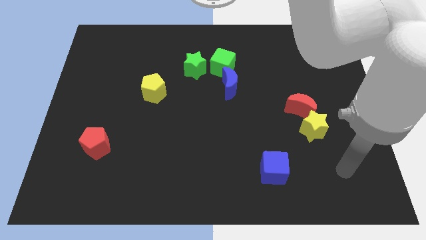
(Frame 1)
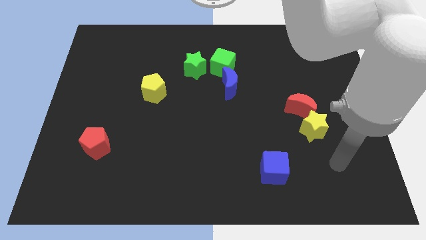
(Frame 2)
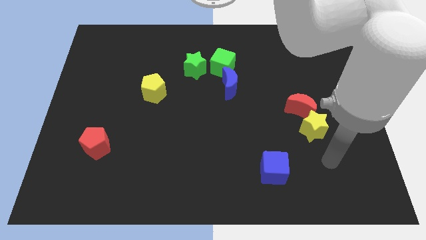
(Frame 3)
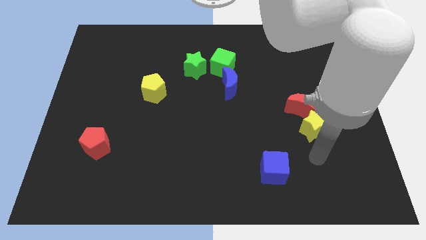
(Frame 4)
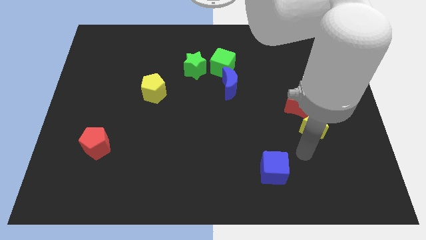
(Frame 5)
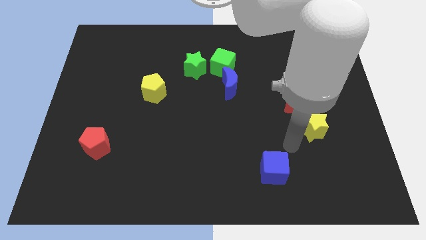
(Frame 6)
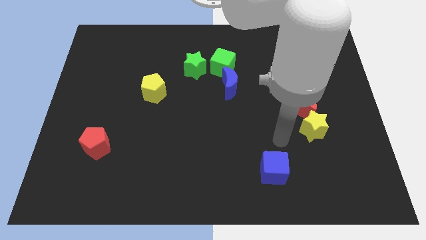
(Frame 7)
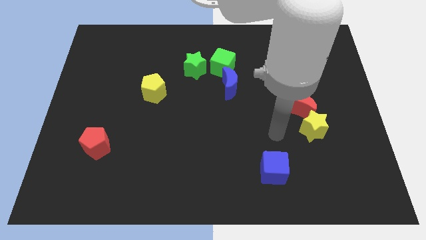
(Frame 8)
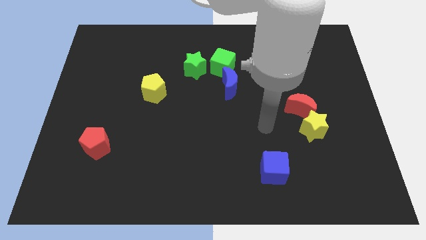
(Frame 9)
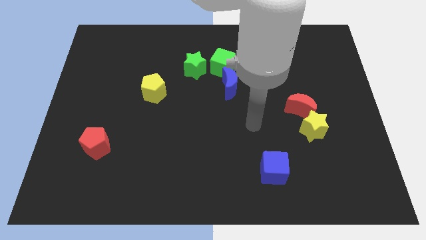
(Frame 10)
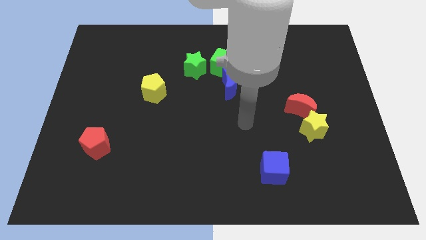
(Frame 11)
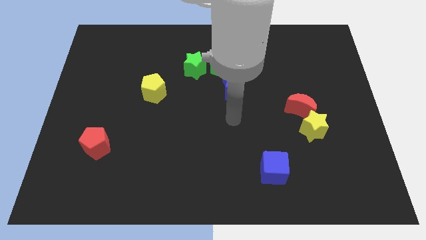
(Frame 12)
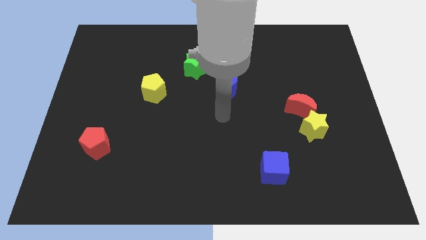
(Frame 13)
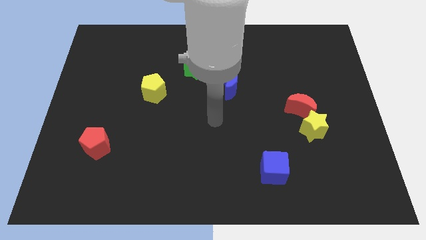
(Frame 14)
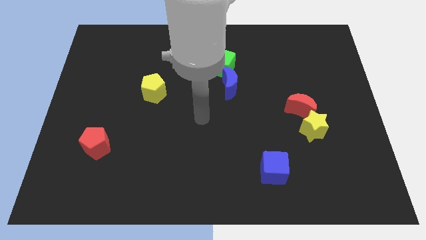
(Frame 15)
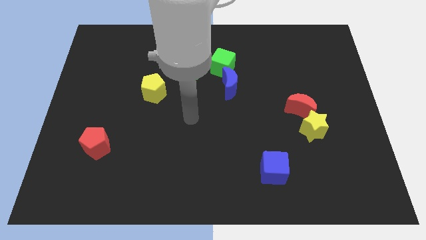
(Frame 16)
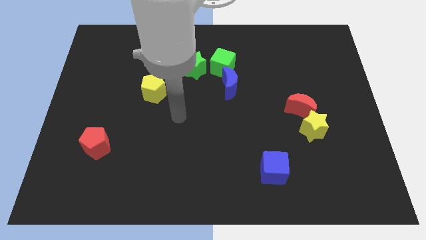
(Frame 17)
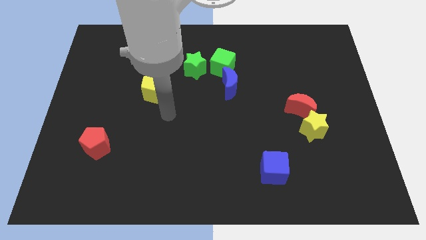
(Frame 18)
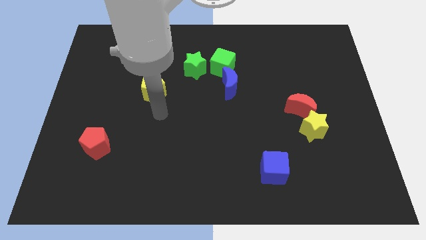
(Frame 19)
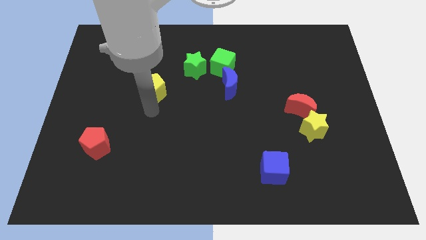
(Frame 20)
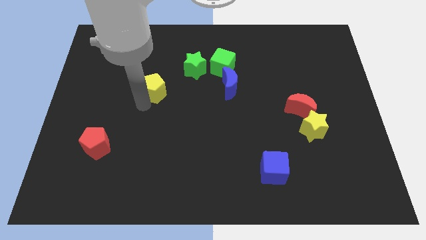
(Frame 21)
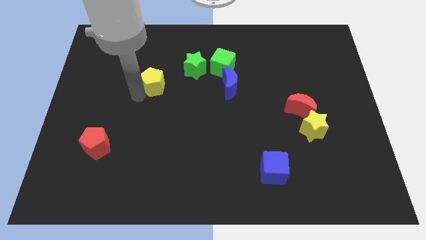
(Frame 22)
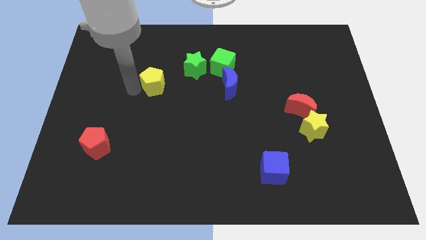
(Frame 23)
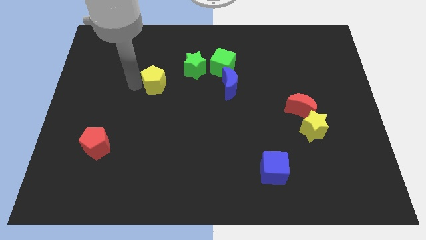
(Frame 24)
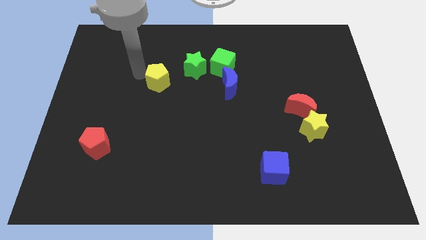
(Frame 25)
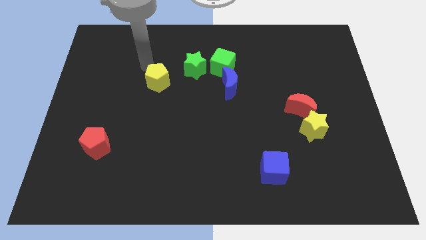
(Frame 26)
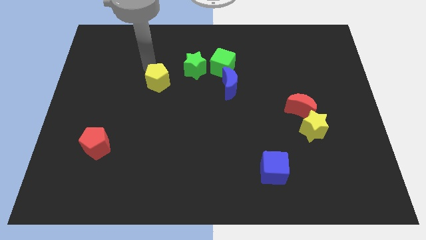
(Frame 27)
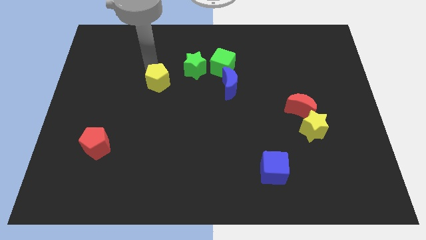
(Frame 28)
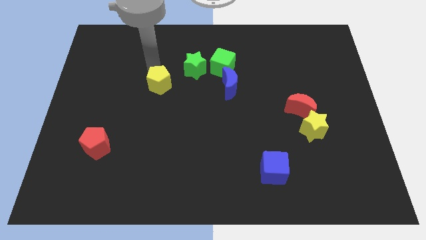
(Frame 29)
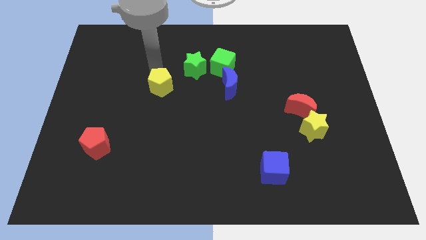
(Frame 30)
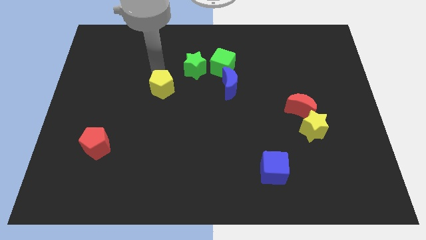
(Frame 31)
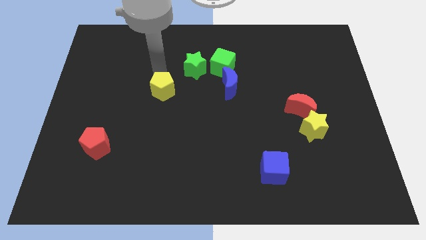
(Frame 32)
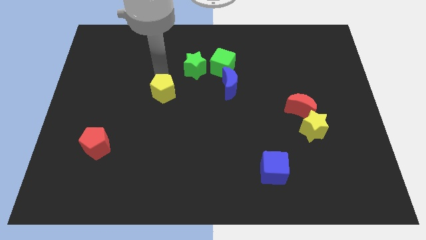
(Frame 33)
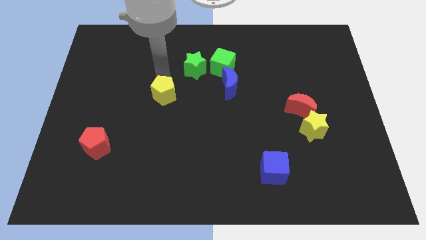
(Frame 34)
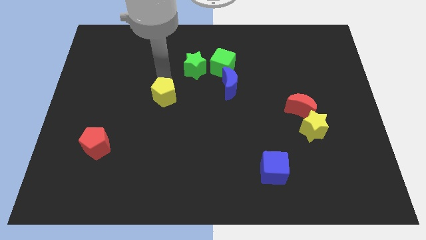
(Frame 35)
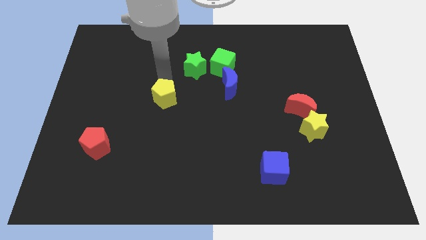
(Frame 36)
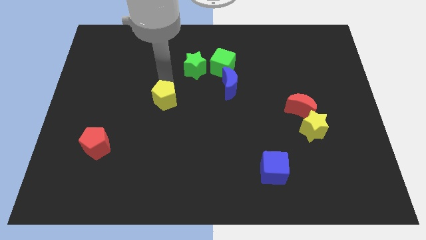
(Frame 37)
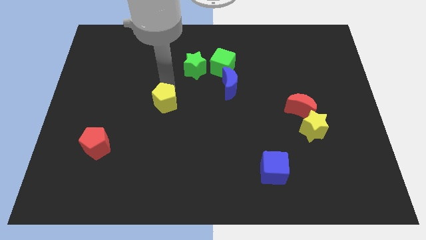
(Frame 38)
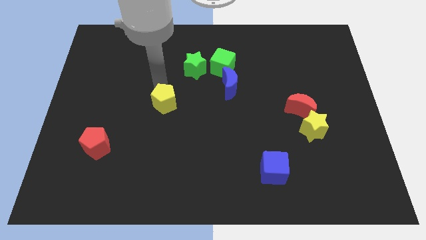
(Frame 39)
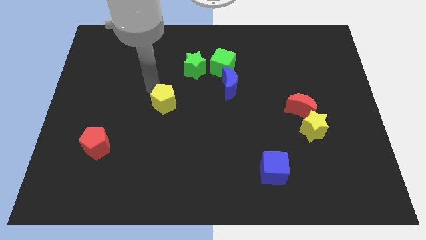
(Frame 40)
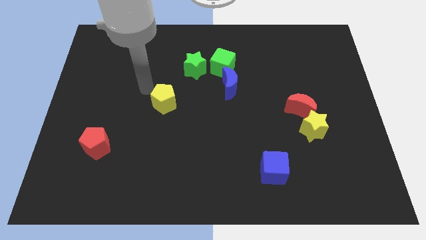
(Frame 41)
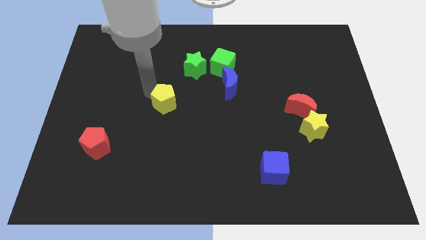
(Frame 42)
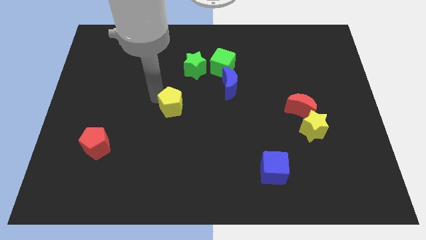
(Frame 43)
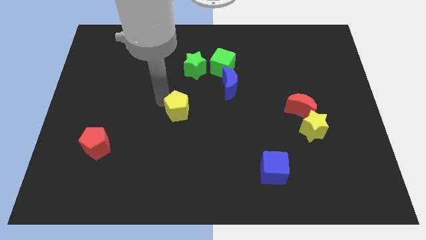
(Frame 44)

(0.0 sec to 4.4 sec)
slightly push the yellow pentagon diagonally downwards and right

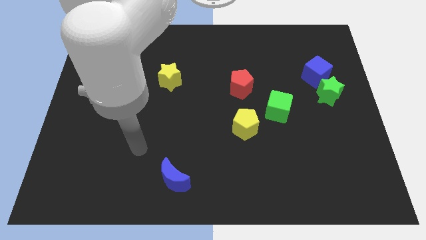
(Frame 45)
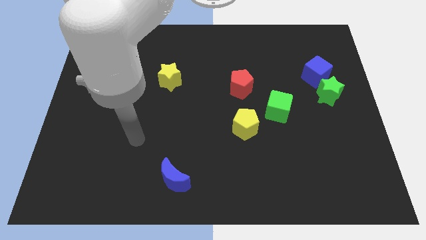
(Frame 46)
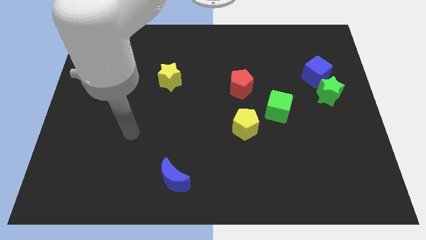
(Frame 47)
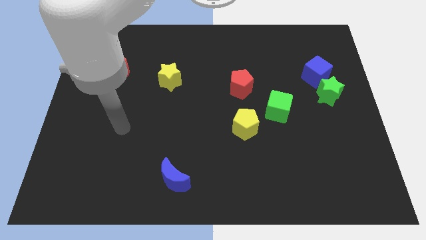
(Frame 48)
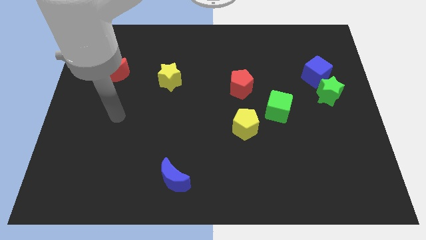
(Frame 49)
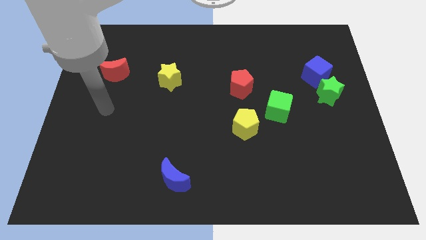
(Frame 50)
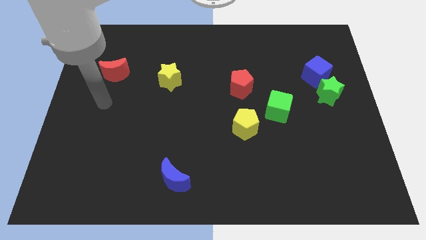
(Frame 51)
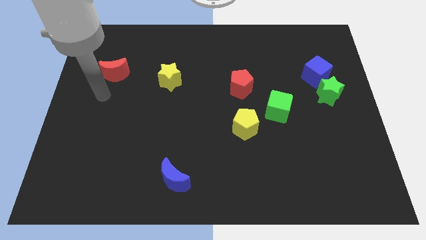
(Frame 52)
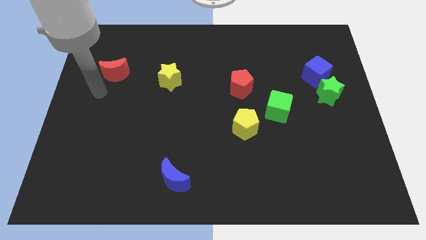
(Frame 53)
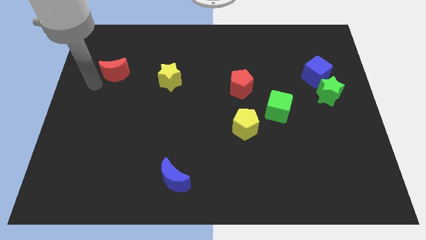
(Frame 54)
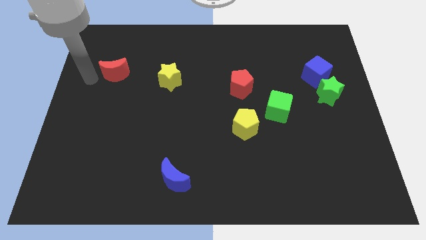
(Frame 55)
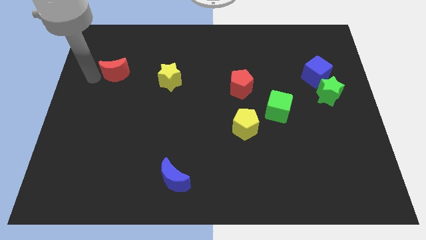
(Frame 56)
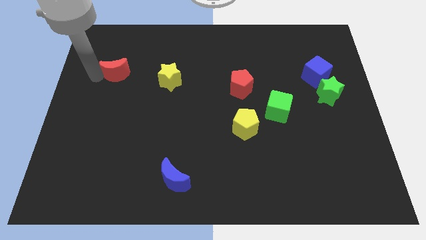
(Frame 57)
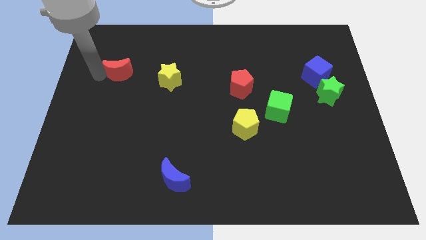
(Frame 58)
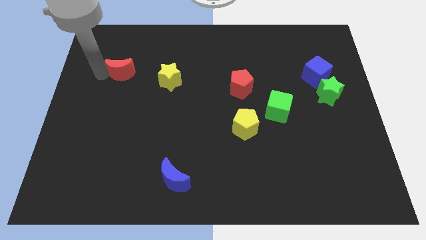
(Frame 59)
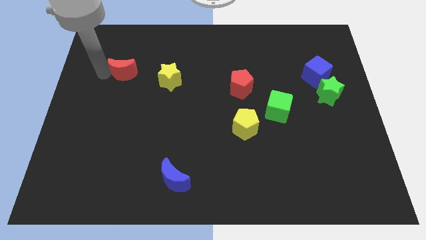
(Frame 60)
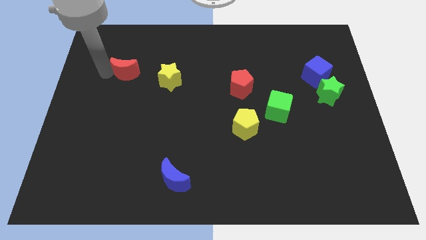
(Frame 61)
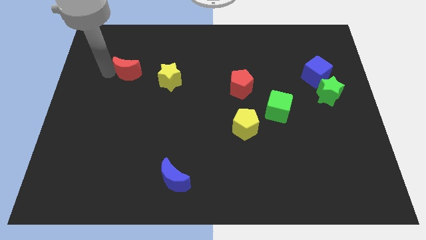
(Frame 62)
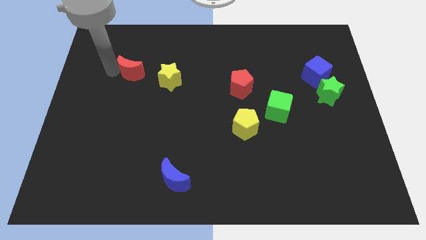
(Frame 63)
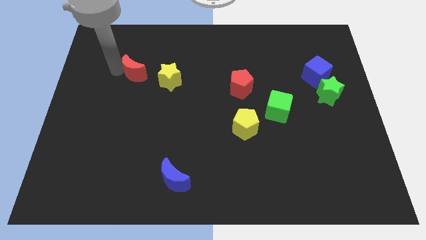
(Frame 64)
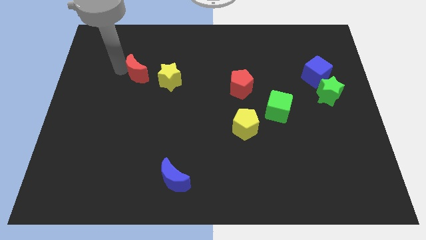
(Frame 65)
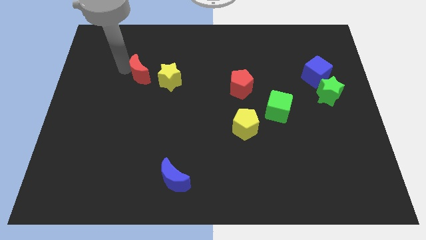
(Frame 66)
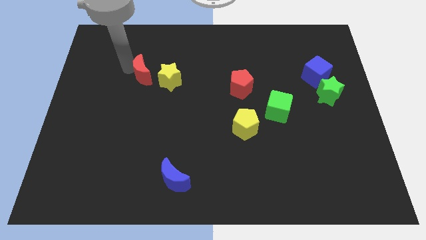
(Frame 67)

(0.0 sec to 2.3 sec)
push the red moon right slightly

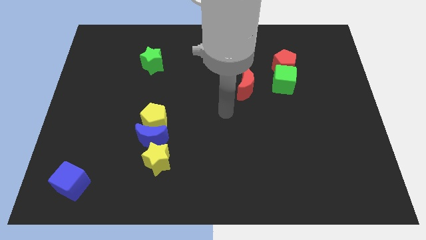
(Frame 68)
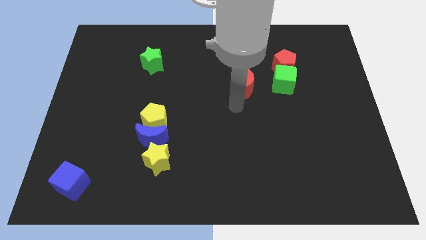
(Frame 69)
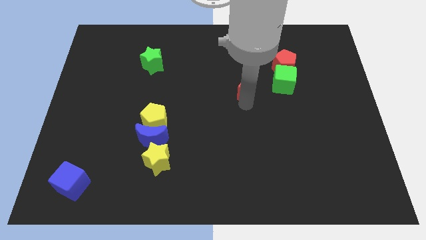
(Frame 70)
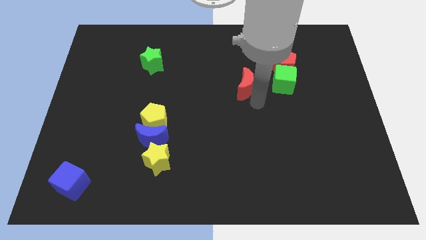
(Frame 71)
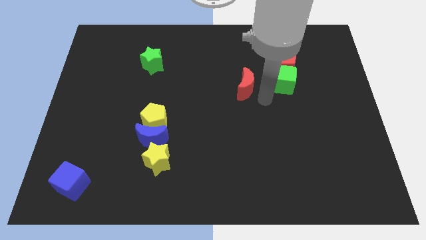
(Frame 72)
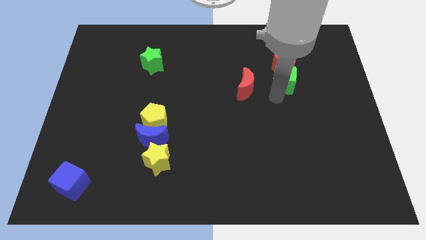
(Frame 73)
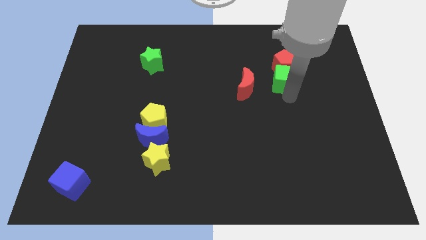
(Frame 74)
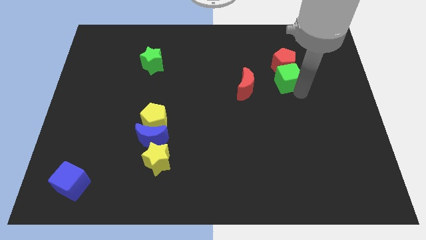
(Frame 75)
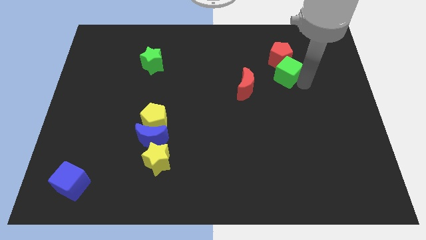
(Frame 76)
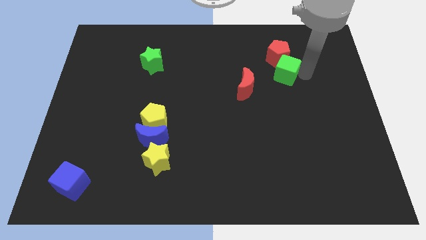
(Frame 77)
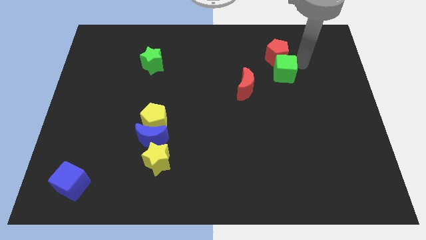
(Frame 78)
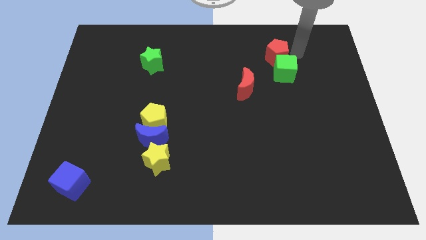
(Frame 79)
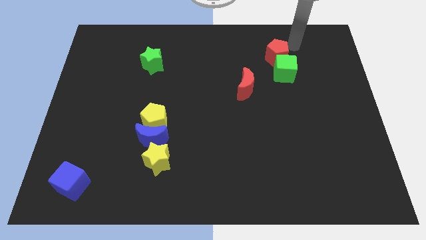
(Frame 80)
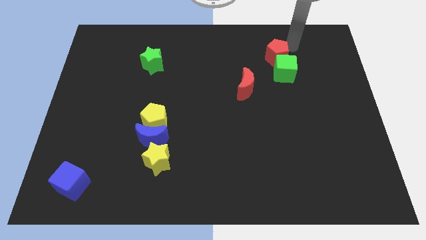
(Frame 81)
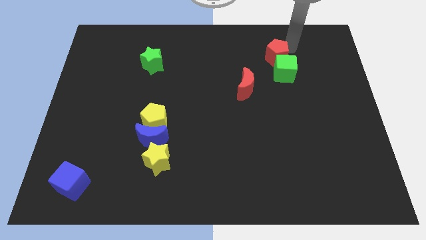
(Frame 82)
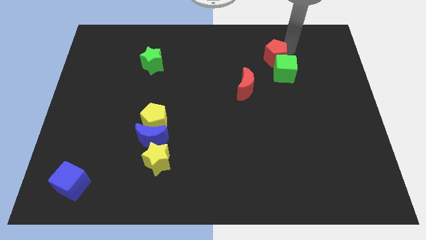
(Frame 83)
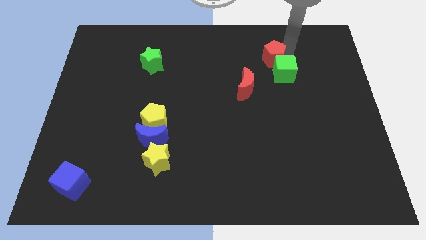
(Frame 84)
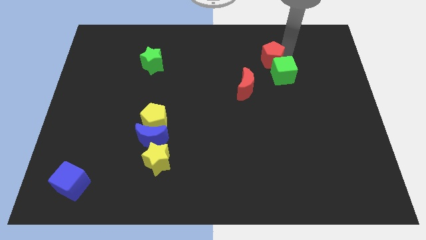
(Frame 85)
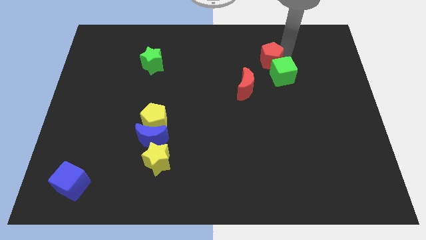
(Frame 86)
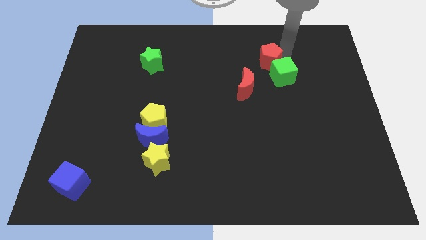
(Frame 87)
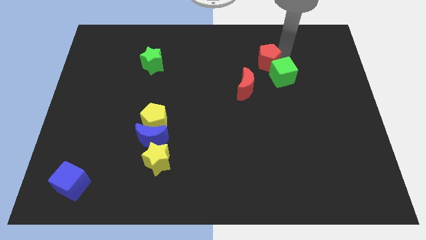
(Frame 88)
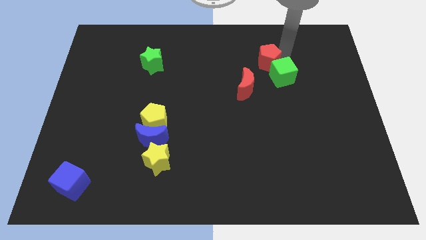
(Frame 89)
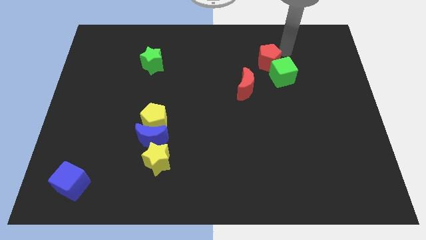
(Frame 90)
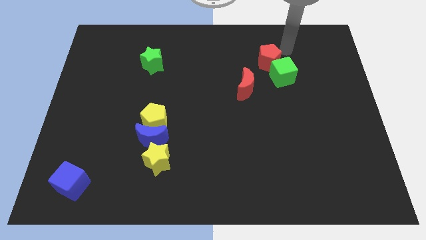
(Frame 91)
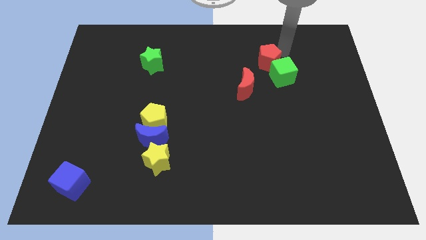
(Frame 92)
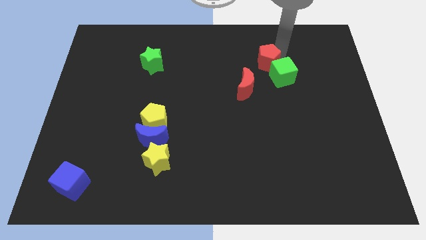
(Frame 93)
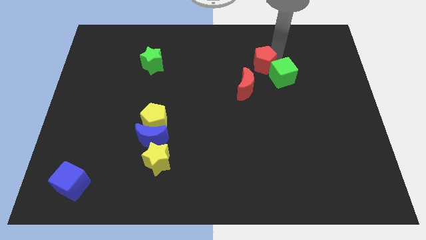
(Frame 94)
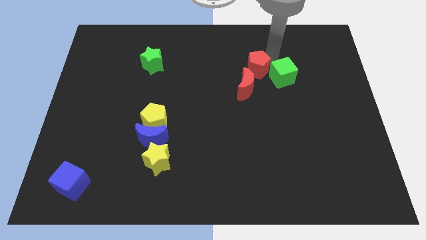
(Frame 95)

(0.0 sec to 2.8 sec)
move the red pentagon to the left somewhat
